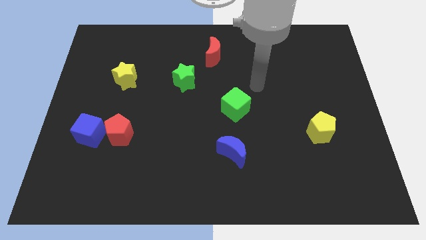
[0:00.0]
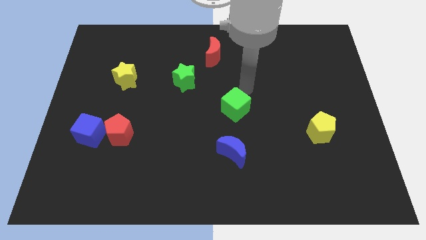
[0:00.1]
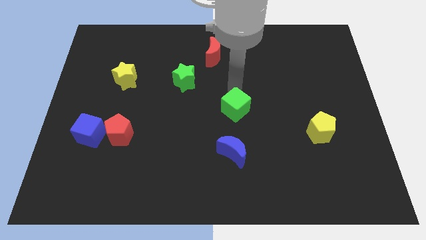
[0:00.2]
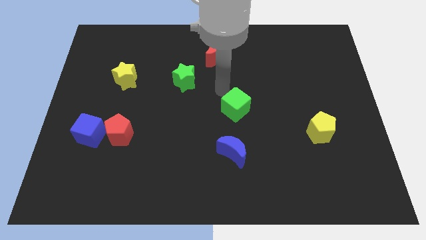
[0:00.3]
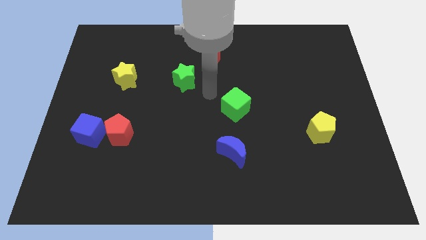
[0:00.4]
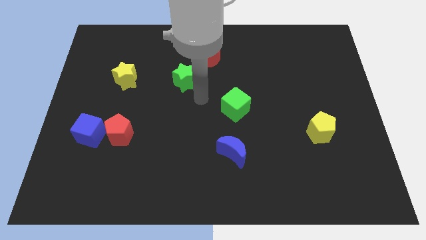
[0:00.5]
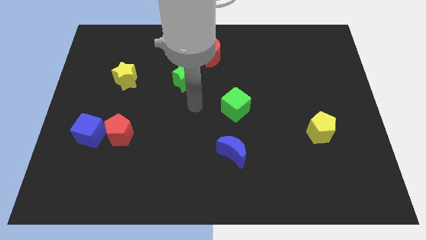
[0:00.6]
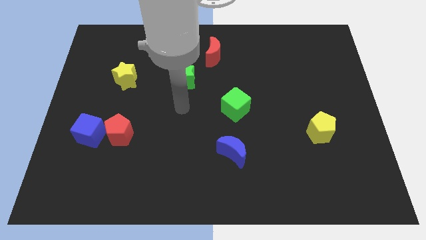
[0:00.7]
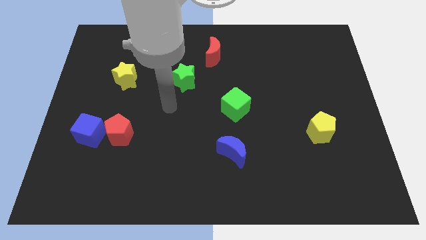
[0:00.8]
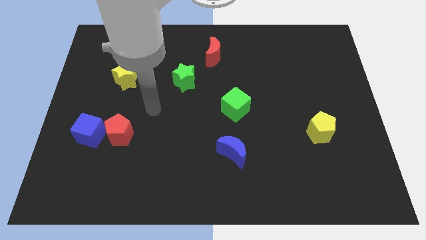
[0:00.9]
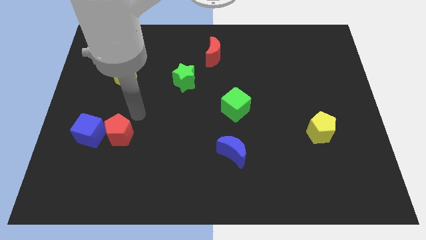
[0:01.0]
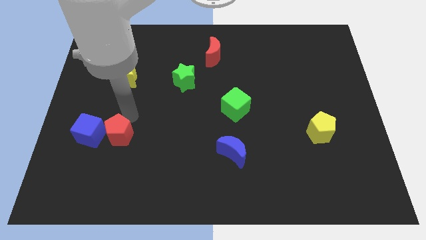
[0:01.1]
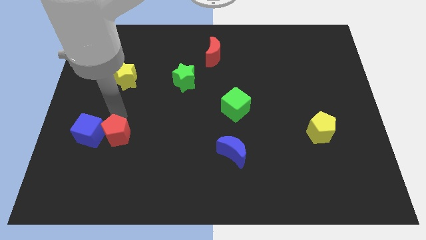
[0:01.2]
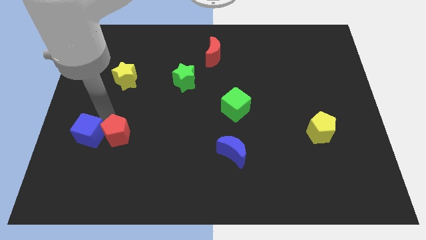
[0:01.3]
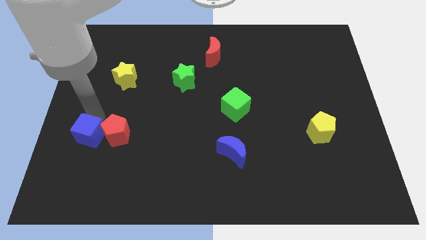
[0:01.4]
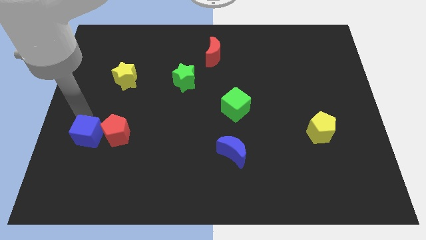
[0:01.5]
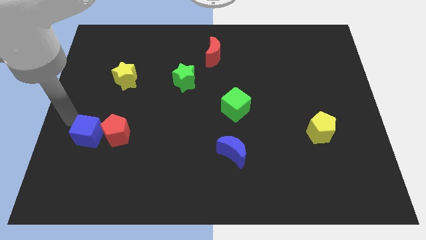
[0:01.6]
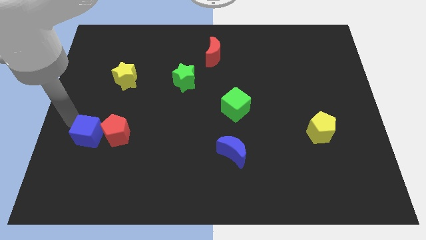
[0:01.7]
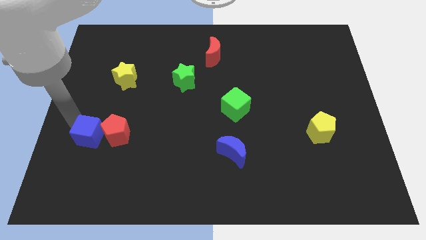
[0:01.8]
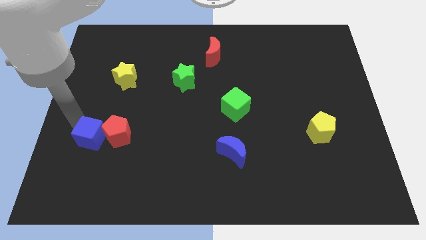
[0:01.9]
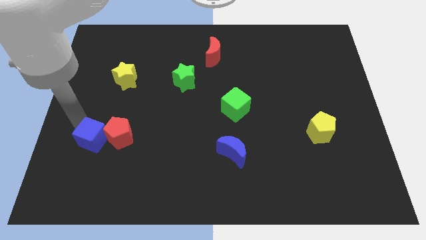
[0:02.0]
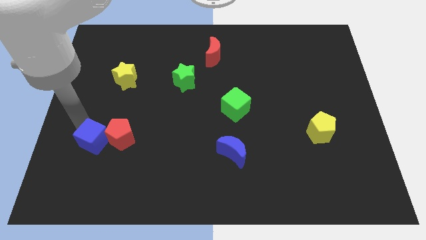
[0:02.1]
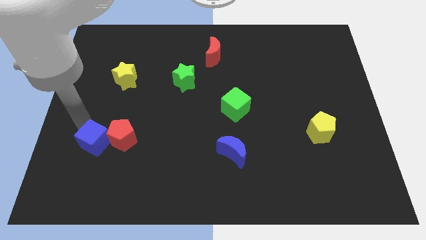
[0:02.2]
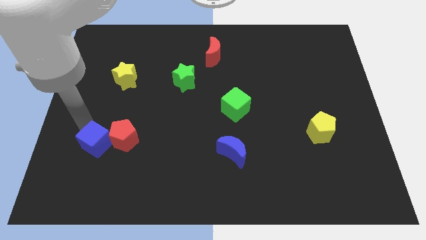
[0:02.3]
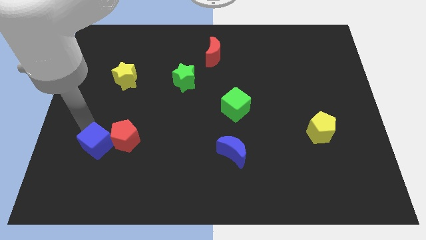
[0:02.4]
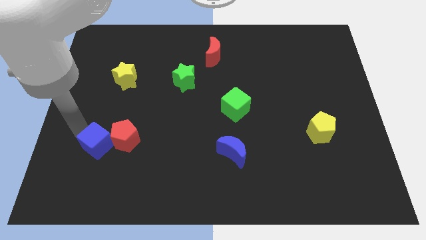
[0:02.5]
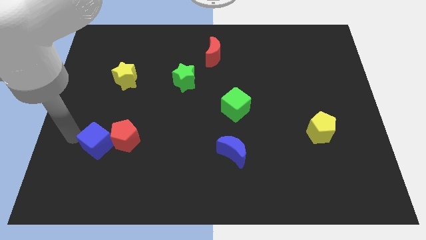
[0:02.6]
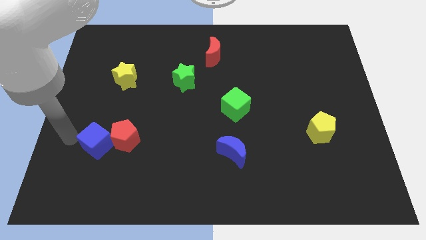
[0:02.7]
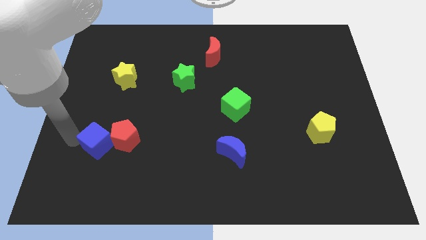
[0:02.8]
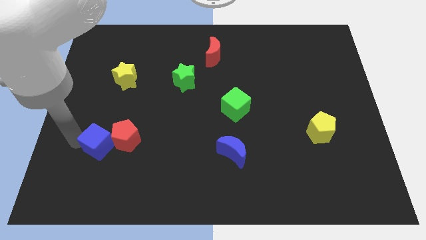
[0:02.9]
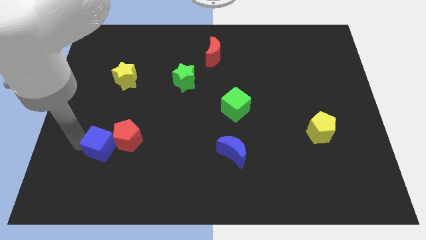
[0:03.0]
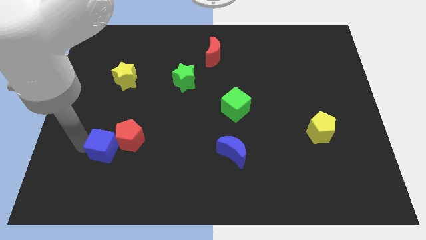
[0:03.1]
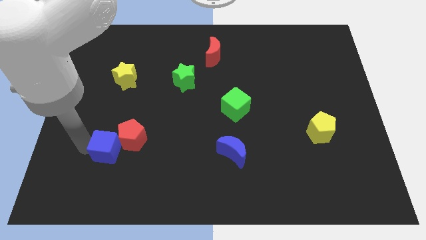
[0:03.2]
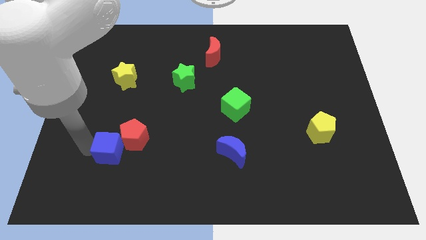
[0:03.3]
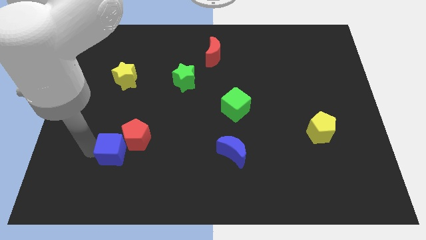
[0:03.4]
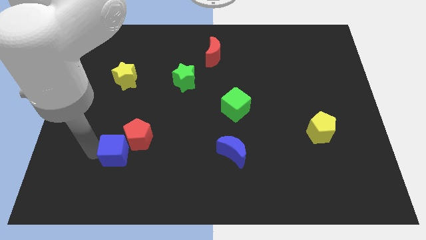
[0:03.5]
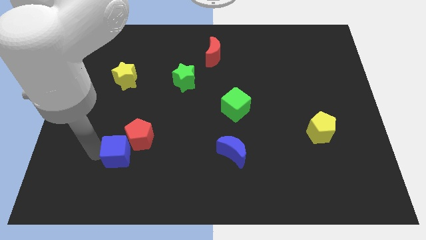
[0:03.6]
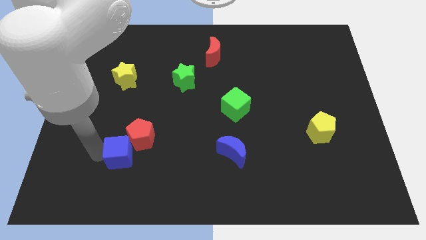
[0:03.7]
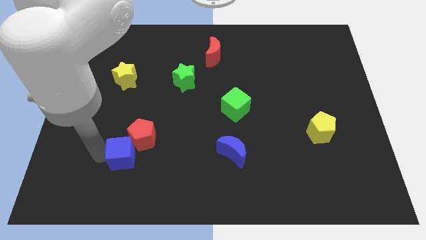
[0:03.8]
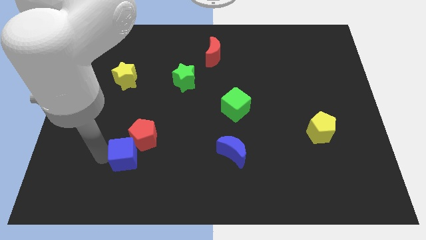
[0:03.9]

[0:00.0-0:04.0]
slide the blue cube a bit right

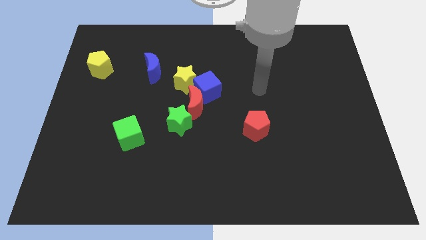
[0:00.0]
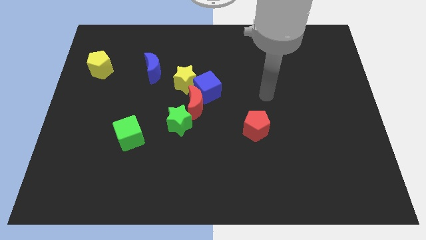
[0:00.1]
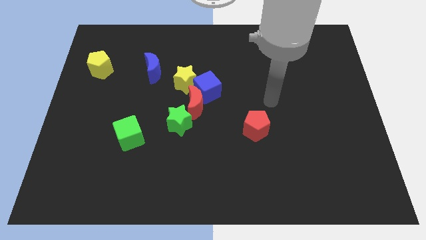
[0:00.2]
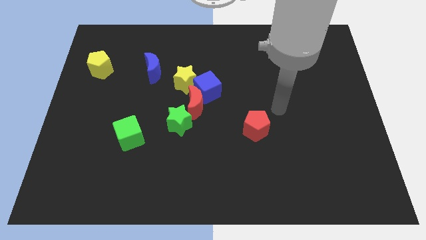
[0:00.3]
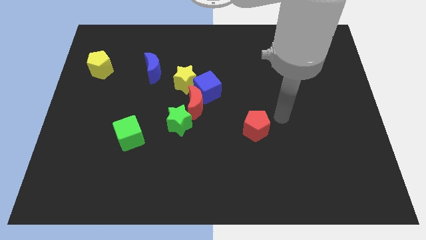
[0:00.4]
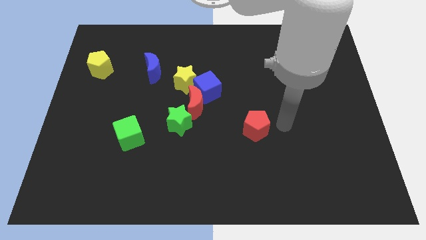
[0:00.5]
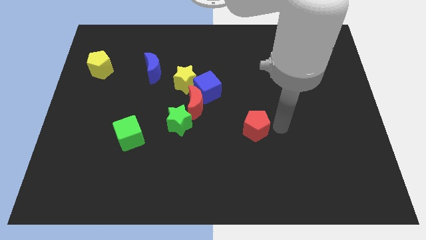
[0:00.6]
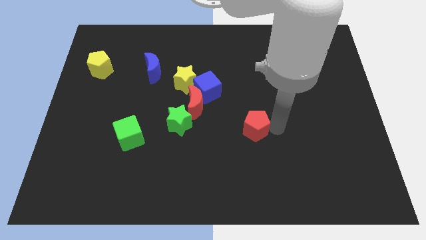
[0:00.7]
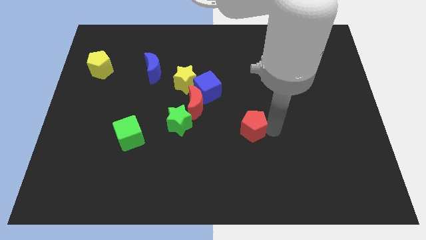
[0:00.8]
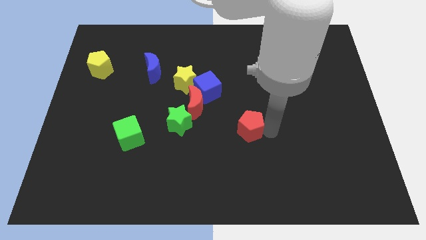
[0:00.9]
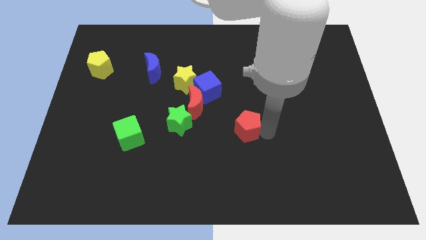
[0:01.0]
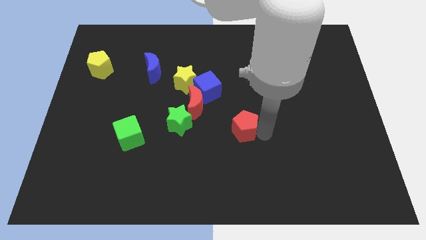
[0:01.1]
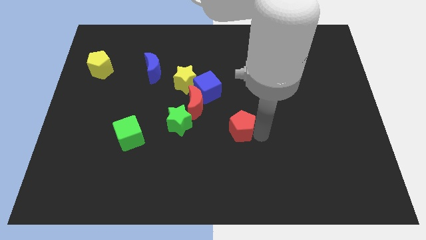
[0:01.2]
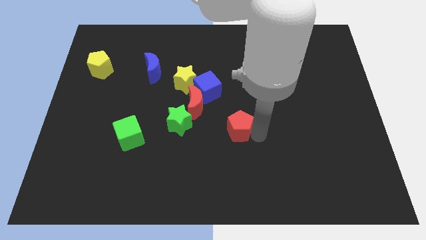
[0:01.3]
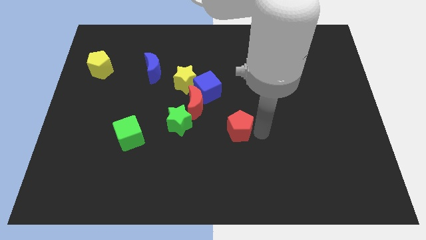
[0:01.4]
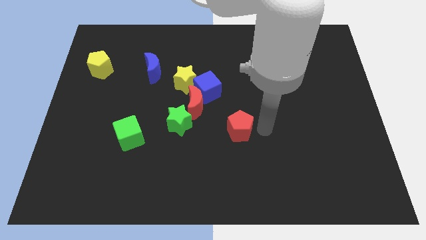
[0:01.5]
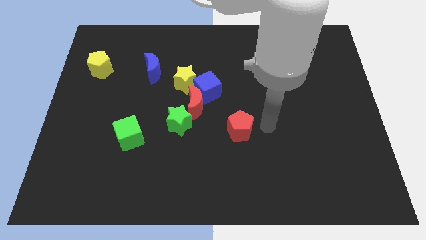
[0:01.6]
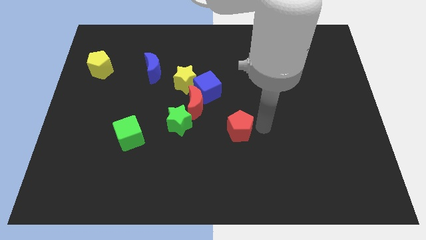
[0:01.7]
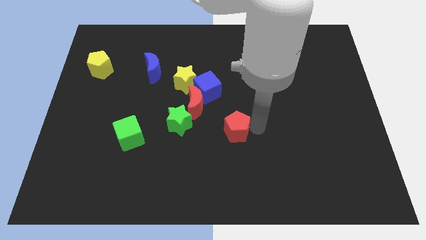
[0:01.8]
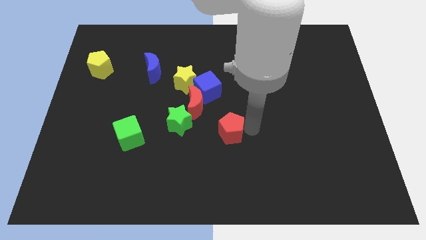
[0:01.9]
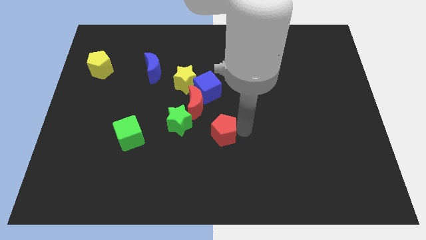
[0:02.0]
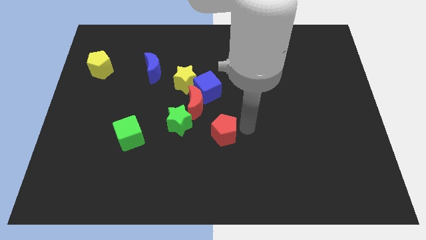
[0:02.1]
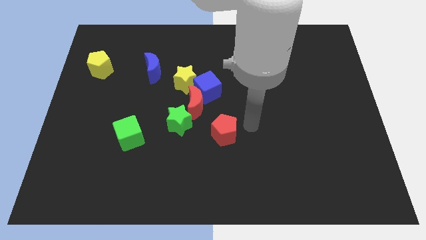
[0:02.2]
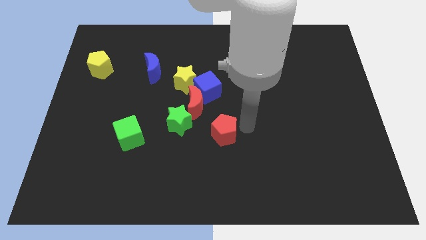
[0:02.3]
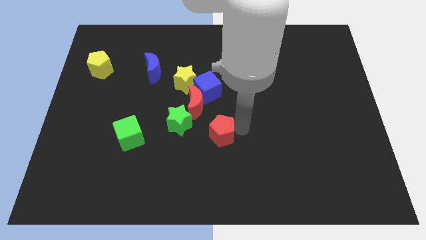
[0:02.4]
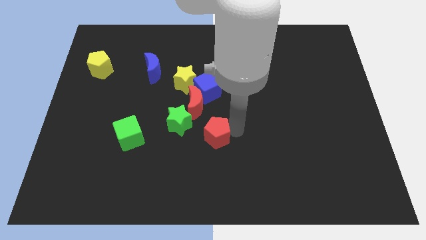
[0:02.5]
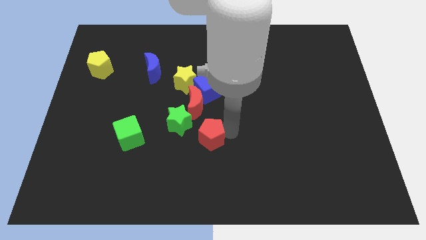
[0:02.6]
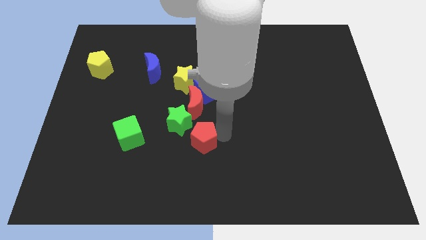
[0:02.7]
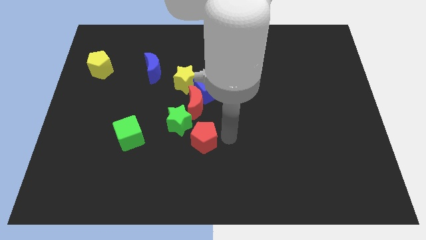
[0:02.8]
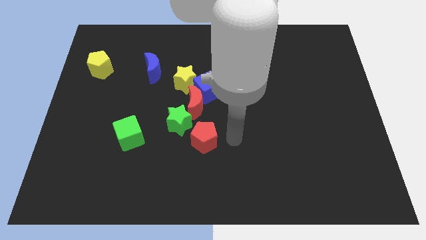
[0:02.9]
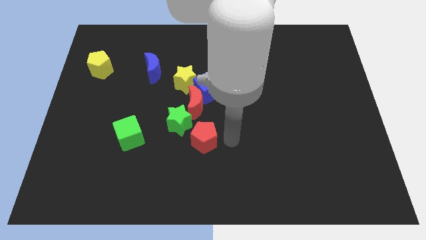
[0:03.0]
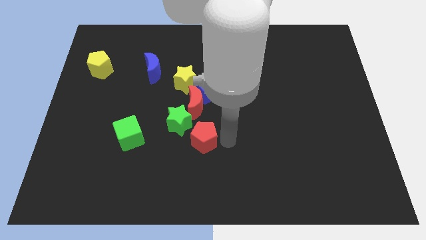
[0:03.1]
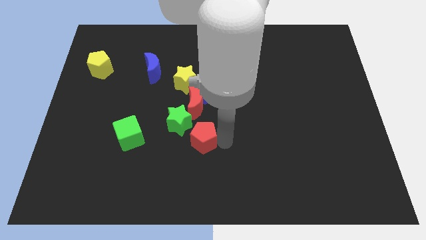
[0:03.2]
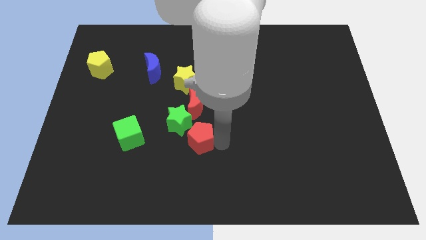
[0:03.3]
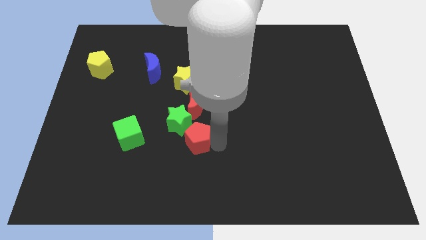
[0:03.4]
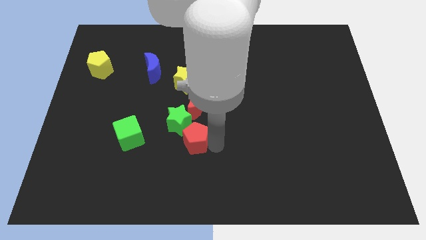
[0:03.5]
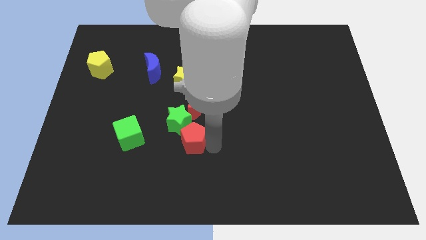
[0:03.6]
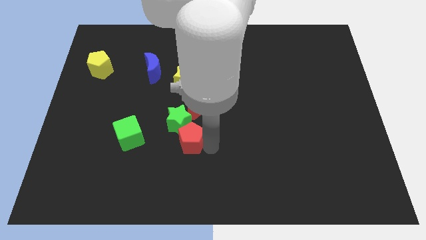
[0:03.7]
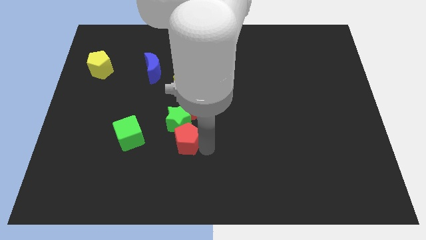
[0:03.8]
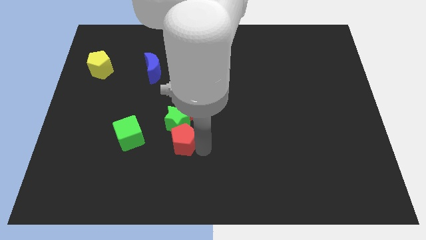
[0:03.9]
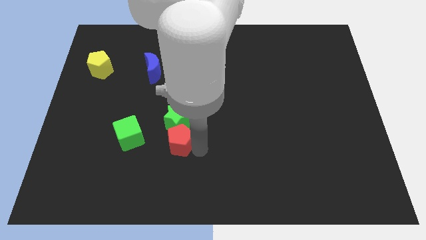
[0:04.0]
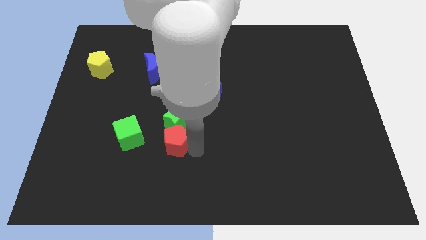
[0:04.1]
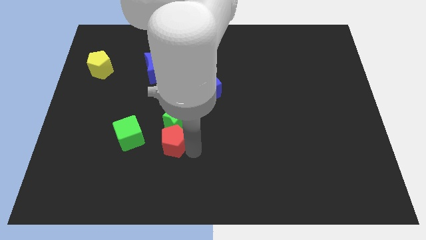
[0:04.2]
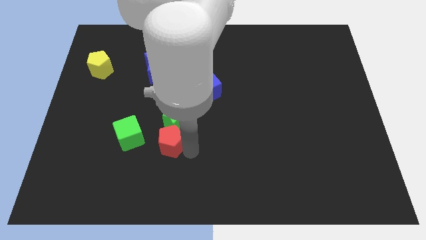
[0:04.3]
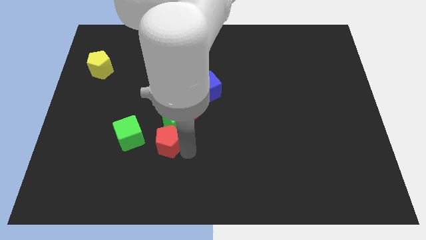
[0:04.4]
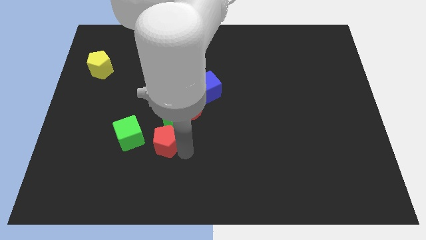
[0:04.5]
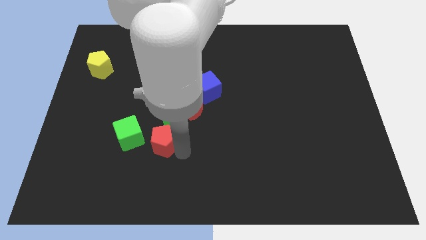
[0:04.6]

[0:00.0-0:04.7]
slide the red pentagon left
